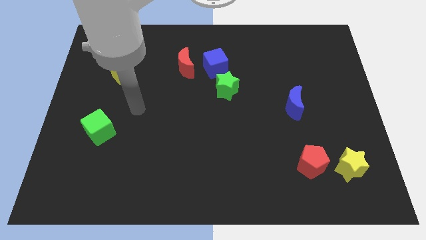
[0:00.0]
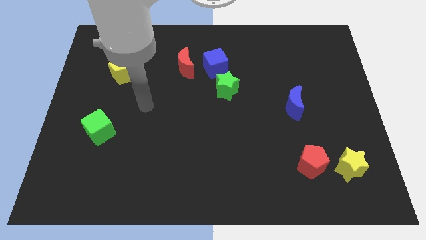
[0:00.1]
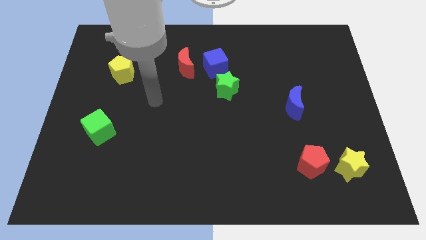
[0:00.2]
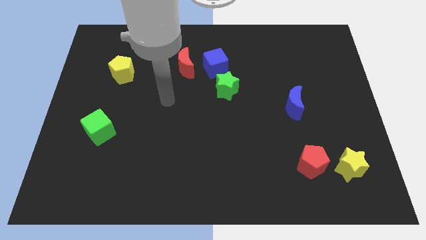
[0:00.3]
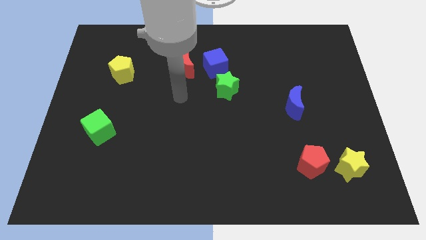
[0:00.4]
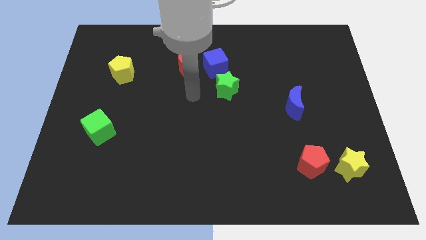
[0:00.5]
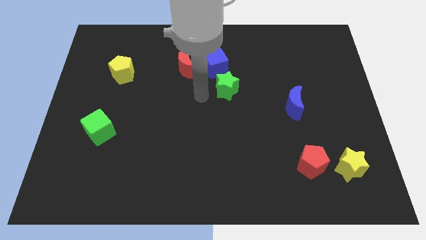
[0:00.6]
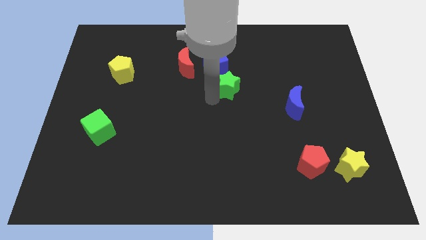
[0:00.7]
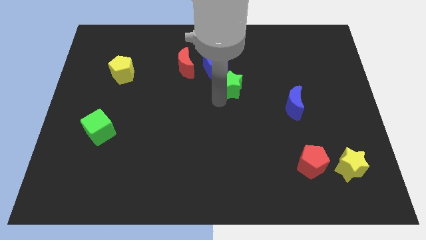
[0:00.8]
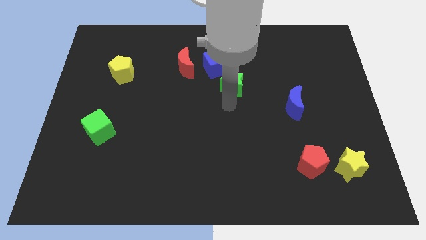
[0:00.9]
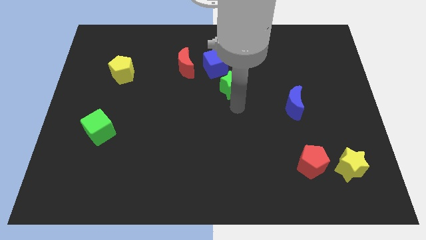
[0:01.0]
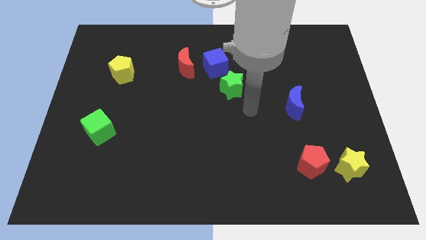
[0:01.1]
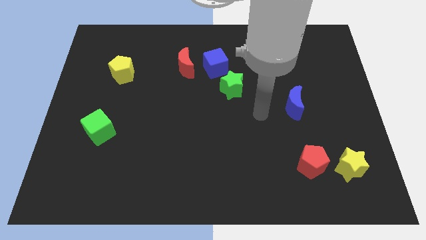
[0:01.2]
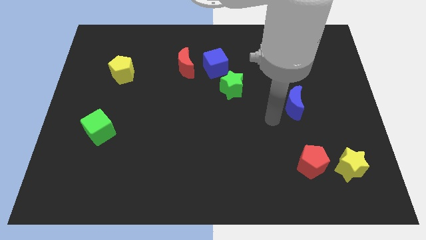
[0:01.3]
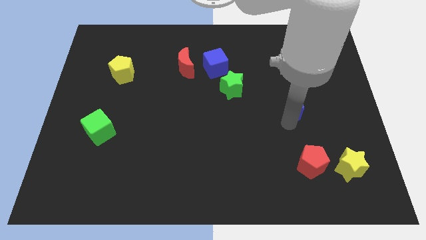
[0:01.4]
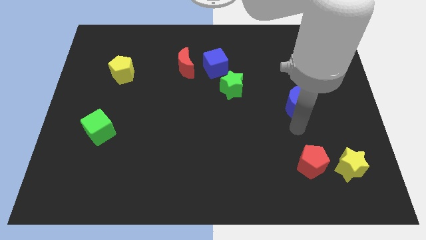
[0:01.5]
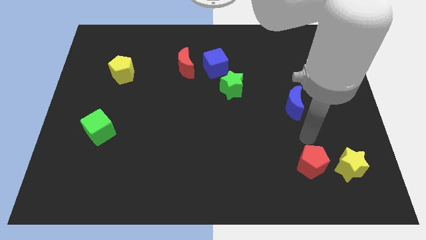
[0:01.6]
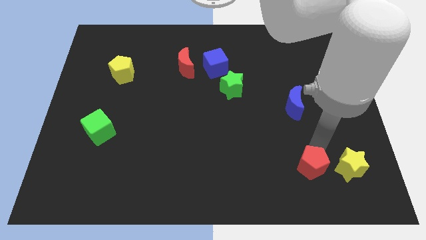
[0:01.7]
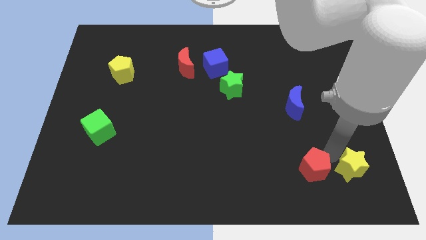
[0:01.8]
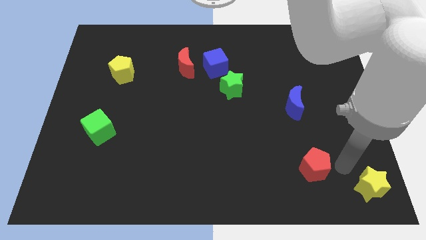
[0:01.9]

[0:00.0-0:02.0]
pull the red pentagon apart from the yellow star

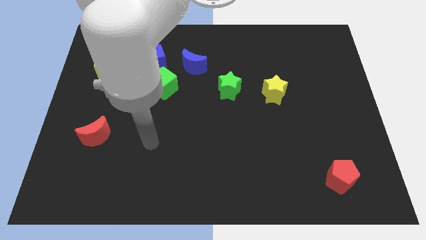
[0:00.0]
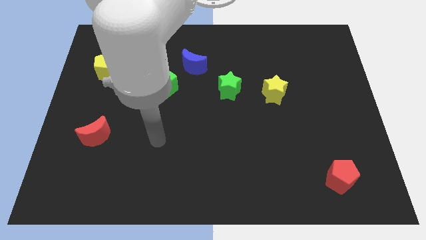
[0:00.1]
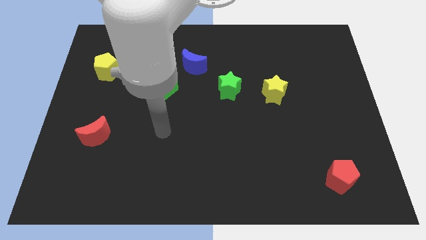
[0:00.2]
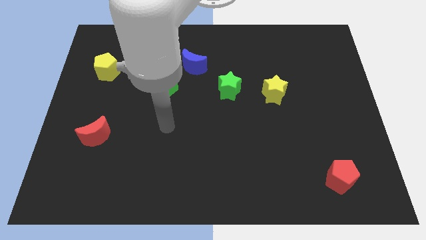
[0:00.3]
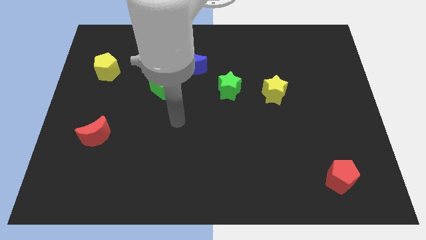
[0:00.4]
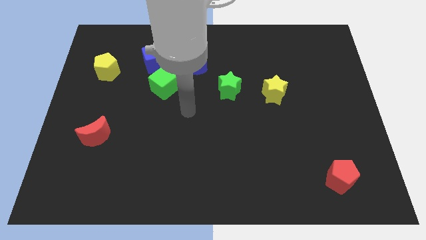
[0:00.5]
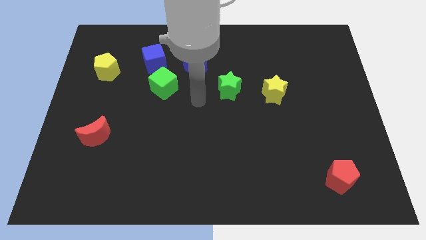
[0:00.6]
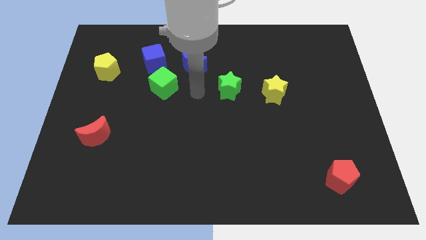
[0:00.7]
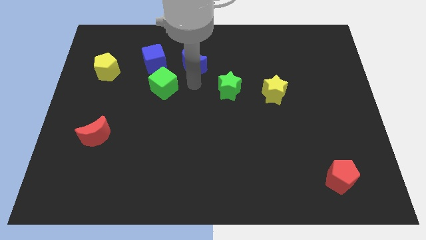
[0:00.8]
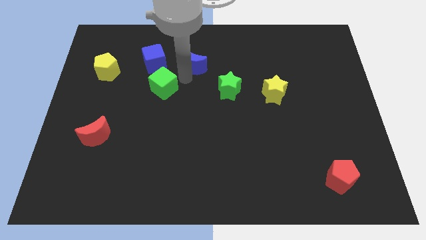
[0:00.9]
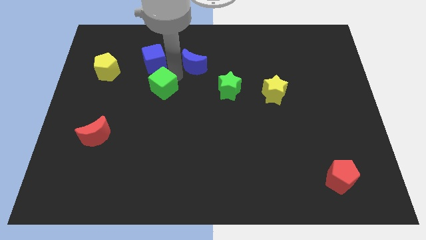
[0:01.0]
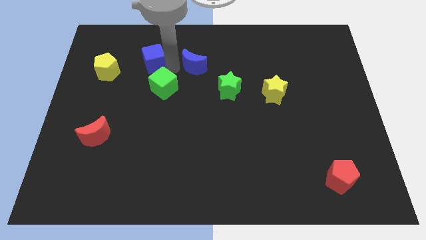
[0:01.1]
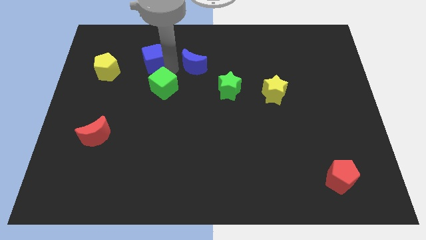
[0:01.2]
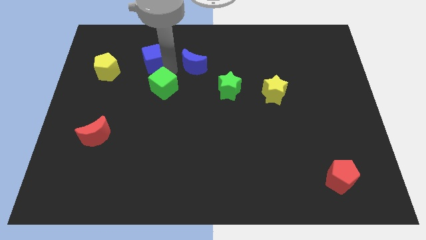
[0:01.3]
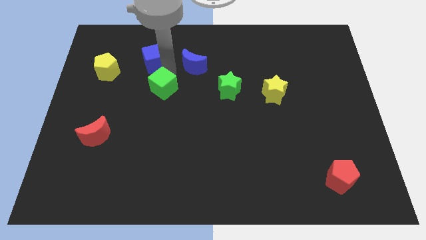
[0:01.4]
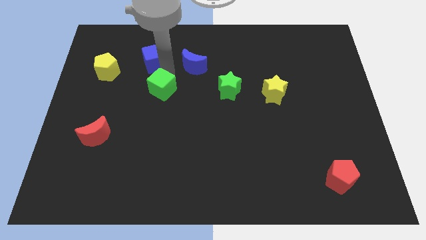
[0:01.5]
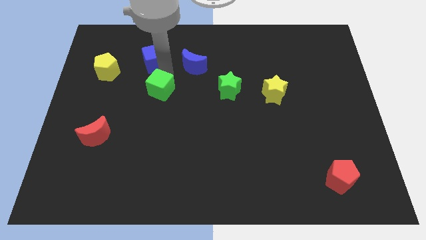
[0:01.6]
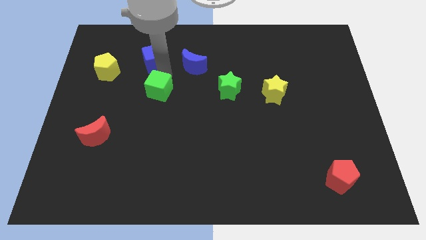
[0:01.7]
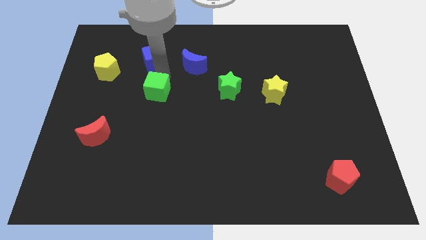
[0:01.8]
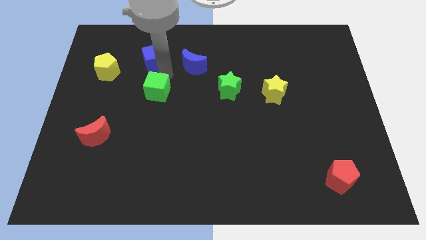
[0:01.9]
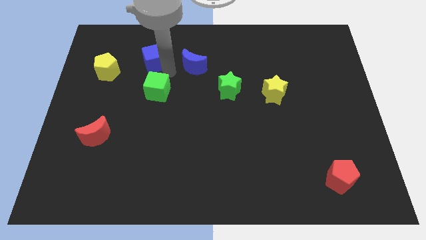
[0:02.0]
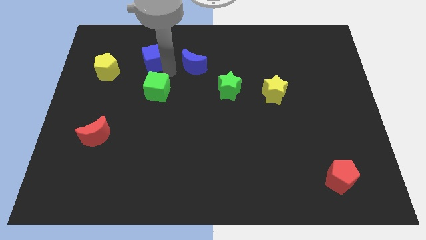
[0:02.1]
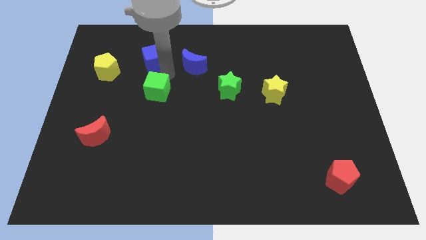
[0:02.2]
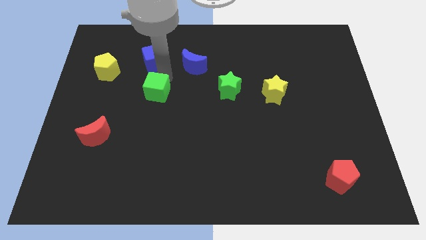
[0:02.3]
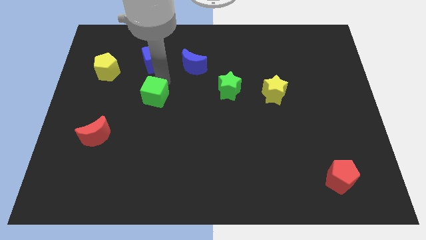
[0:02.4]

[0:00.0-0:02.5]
move the green cube away from the blue cube and blue moon

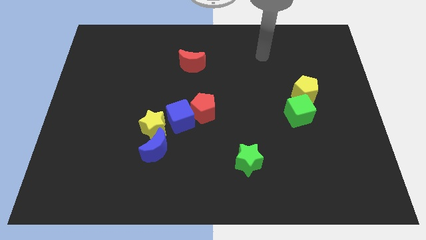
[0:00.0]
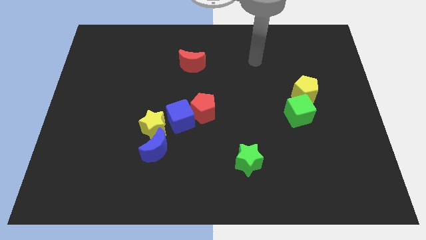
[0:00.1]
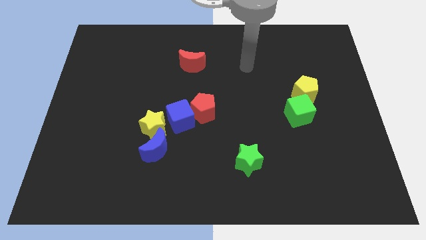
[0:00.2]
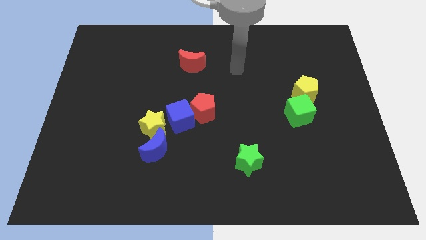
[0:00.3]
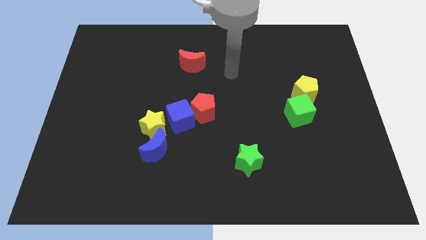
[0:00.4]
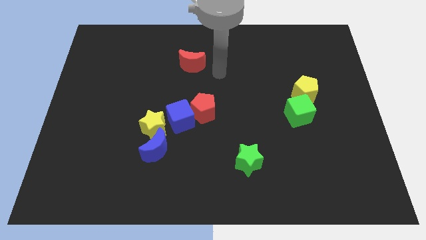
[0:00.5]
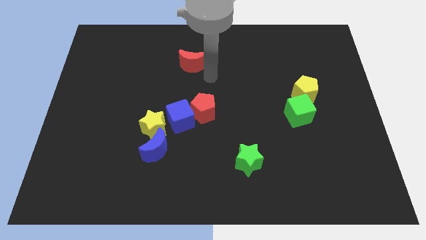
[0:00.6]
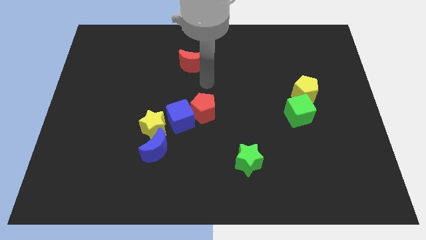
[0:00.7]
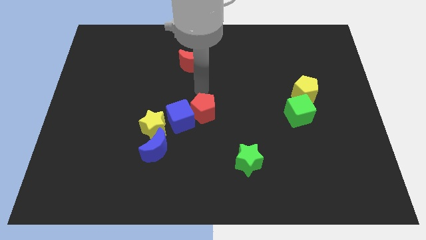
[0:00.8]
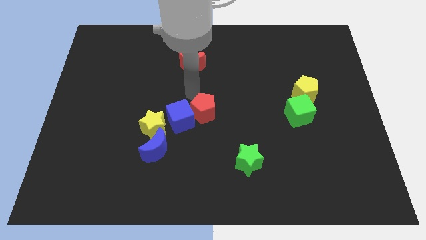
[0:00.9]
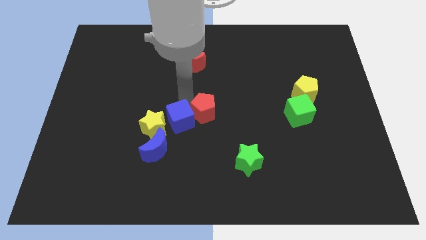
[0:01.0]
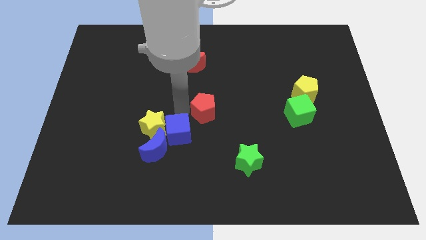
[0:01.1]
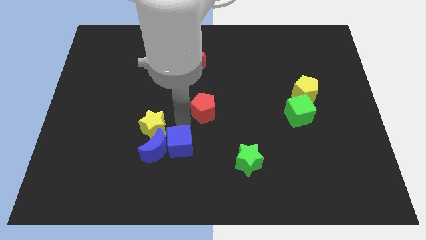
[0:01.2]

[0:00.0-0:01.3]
pull the red pentagon apart from the blue cube

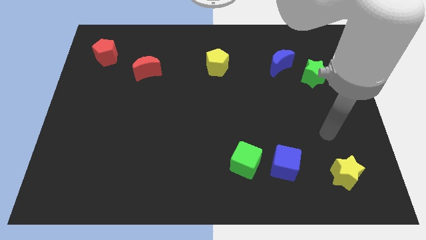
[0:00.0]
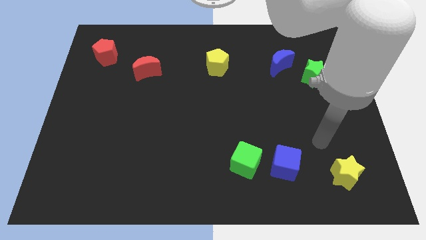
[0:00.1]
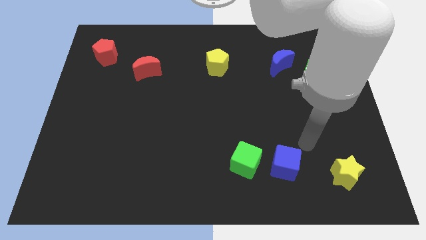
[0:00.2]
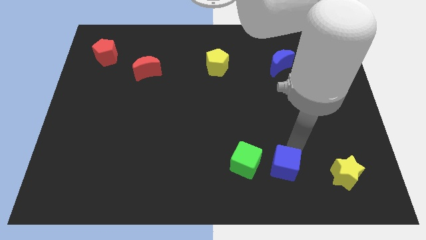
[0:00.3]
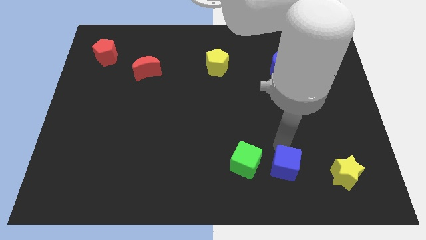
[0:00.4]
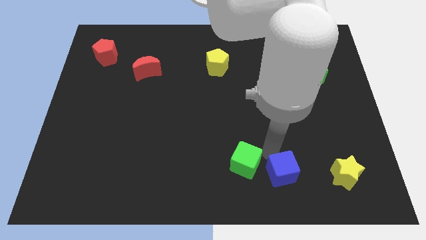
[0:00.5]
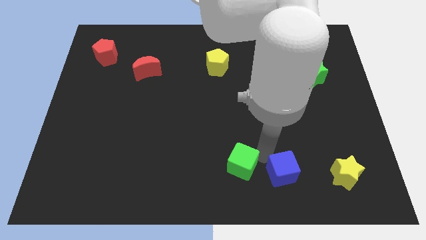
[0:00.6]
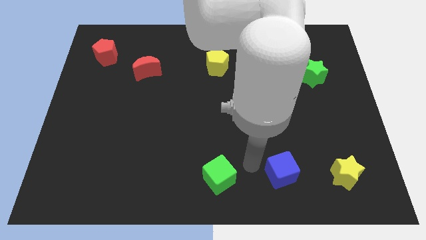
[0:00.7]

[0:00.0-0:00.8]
separate the blue cube from the green cube

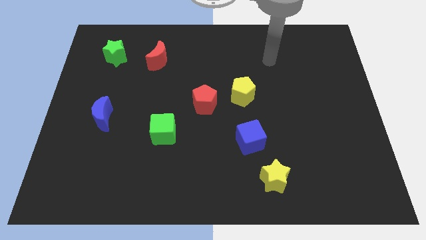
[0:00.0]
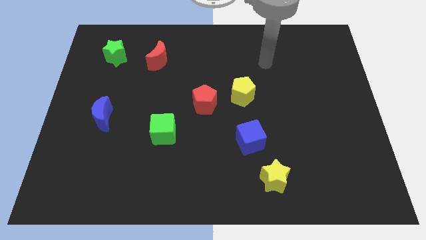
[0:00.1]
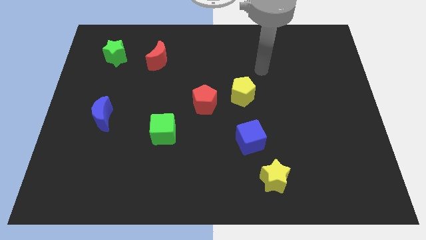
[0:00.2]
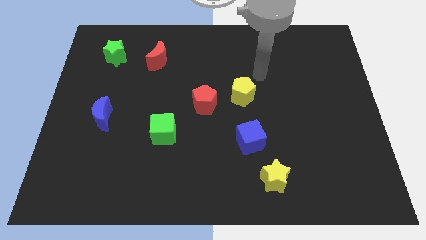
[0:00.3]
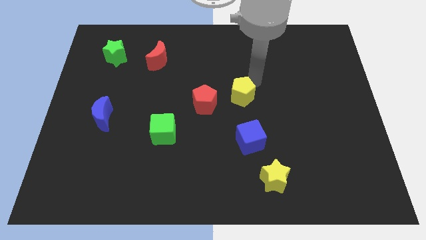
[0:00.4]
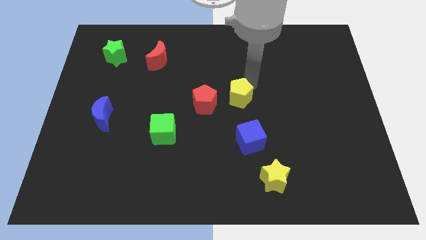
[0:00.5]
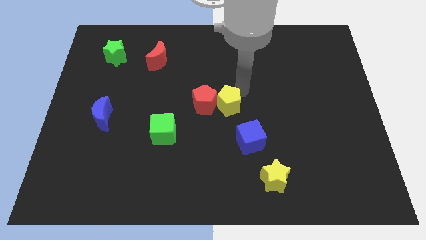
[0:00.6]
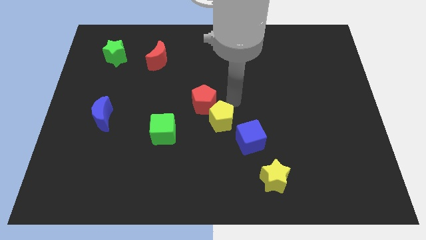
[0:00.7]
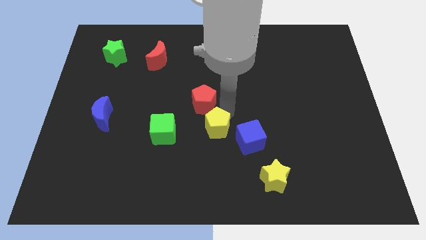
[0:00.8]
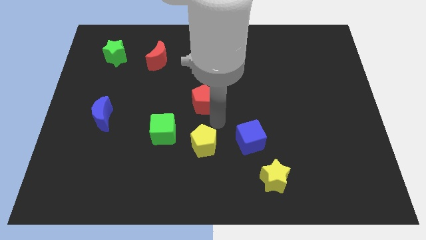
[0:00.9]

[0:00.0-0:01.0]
separate the red pentagon from the yellow pentagon

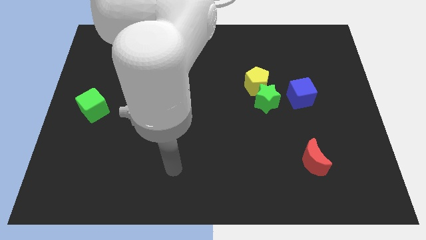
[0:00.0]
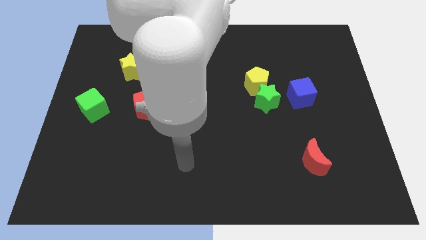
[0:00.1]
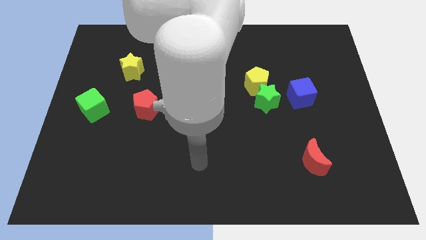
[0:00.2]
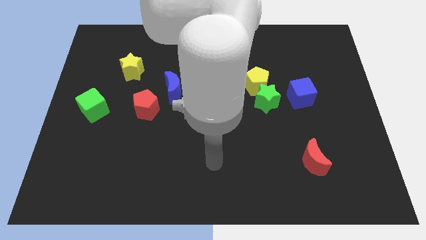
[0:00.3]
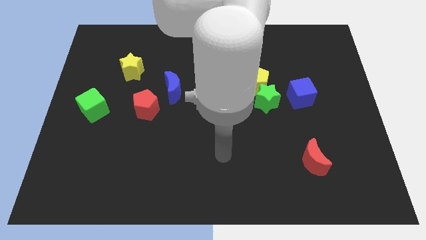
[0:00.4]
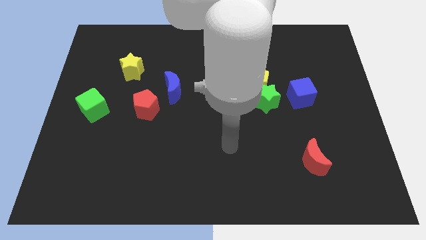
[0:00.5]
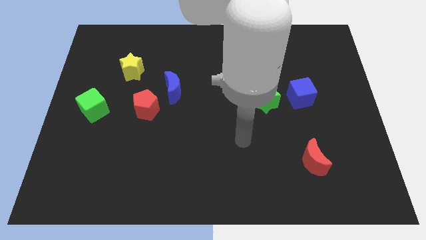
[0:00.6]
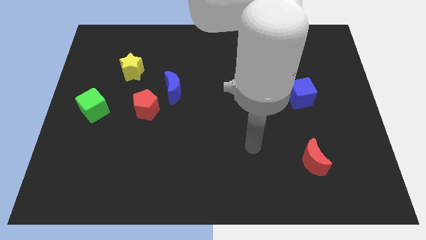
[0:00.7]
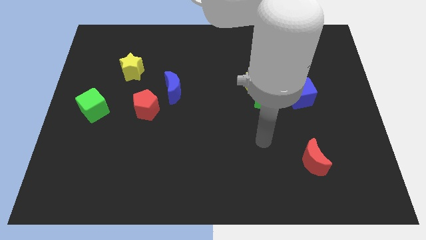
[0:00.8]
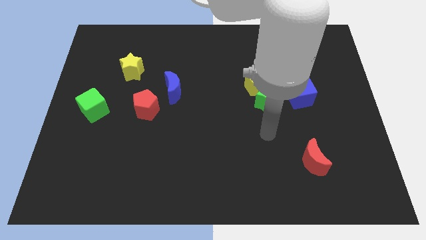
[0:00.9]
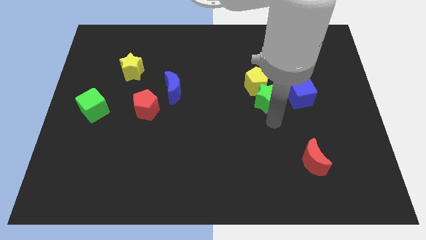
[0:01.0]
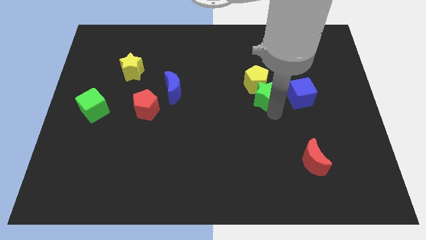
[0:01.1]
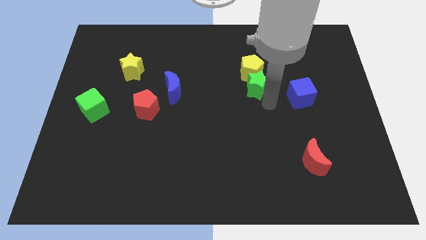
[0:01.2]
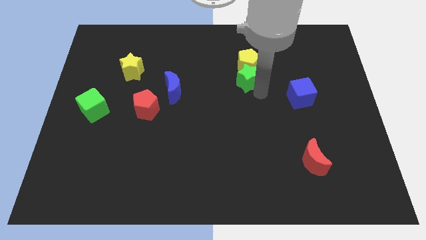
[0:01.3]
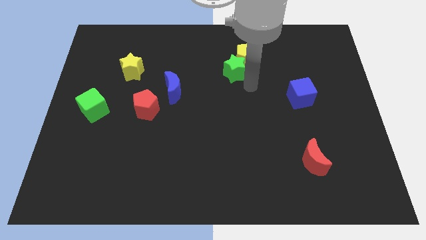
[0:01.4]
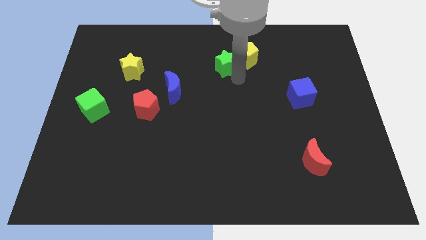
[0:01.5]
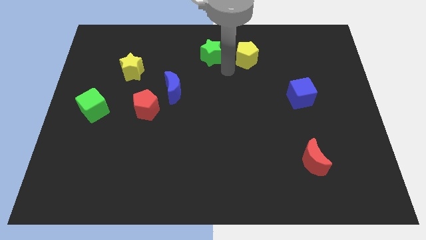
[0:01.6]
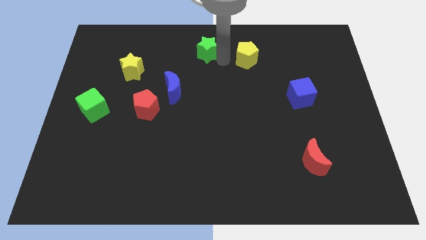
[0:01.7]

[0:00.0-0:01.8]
pull the yellow pentagon apart from the green star
